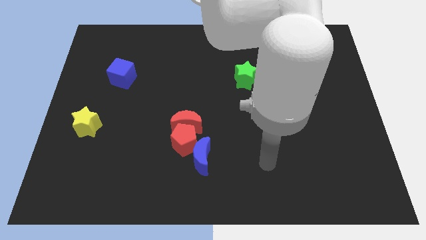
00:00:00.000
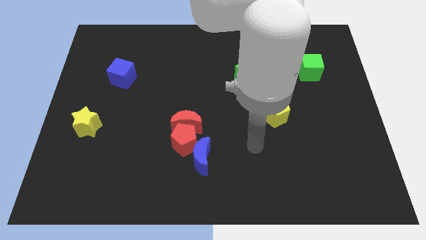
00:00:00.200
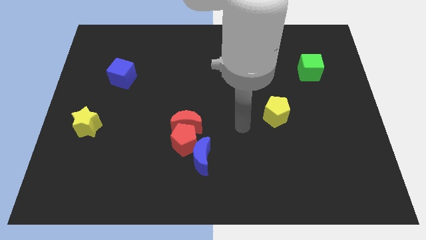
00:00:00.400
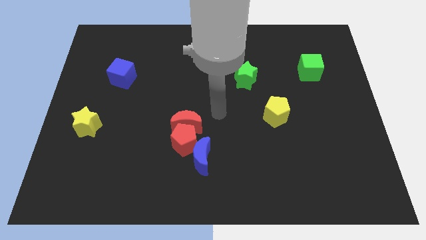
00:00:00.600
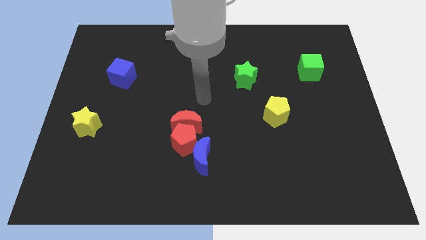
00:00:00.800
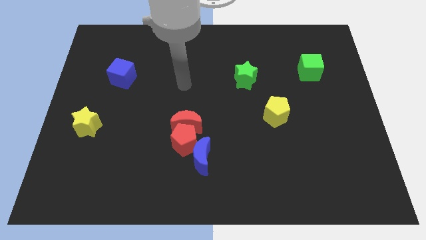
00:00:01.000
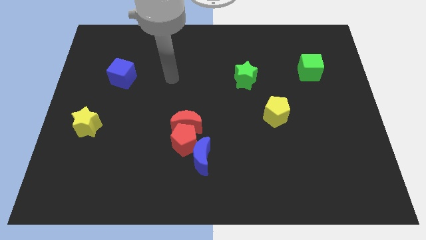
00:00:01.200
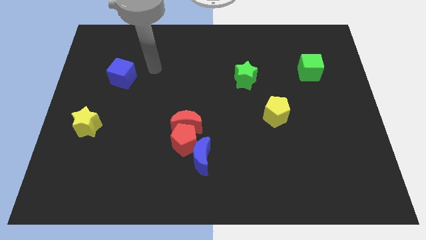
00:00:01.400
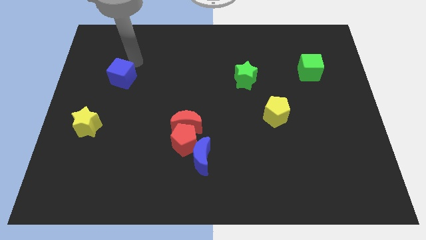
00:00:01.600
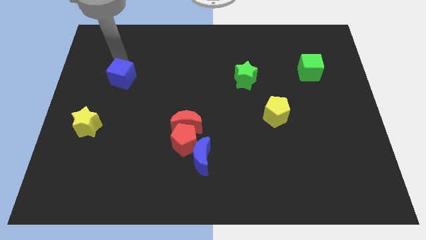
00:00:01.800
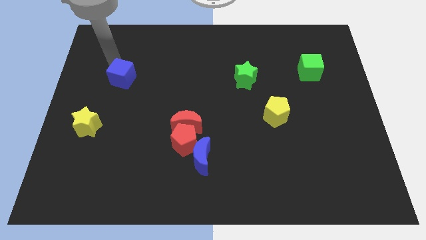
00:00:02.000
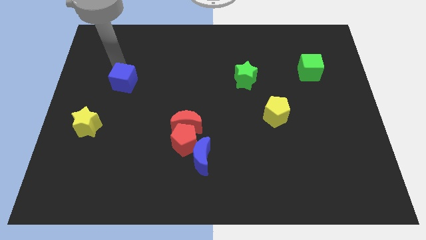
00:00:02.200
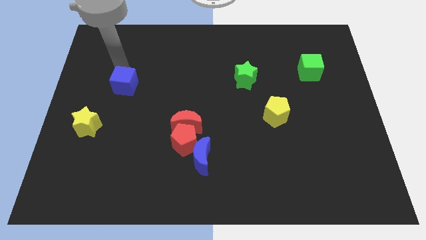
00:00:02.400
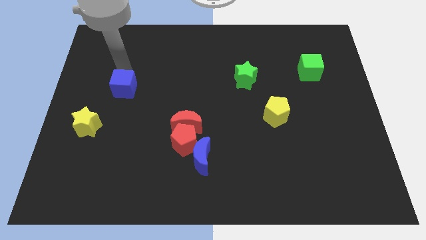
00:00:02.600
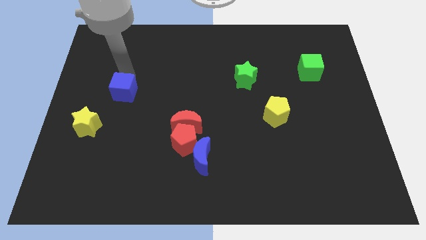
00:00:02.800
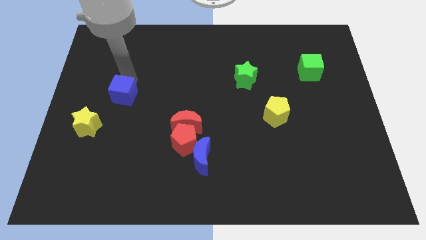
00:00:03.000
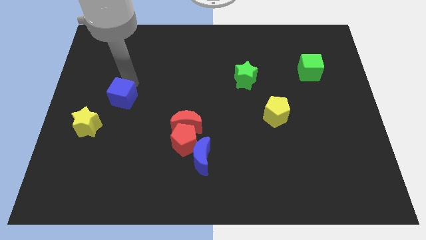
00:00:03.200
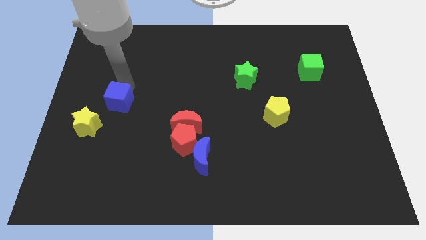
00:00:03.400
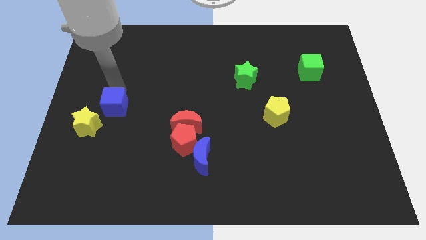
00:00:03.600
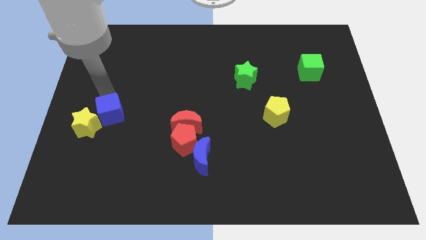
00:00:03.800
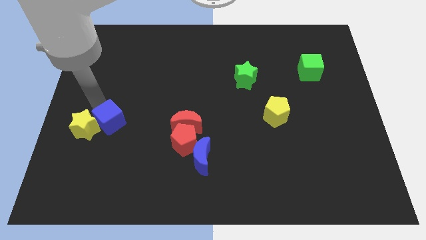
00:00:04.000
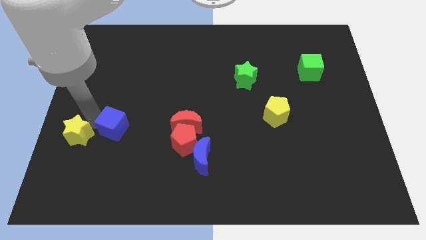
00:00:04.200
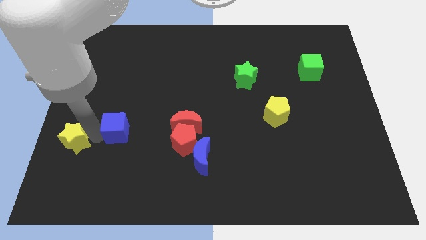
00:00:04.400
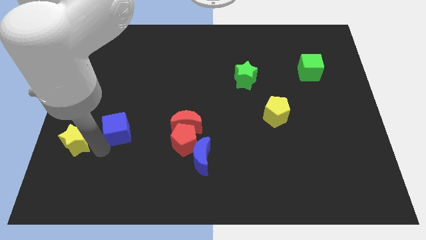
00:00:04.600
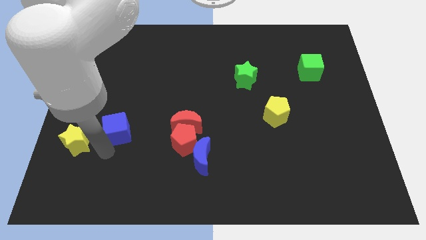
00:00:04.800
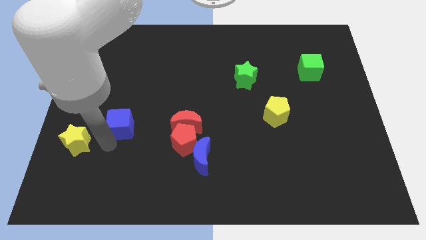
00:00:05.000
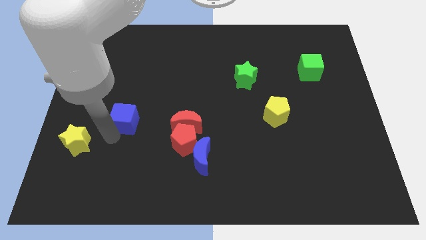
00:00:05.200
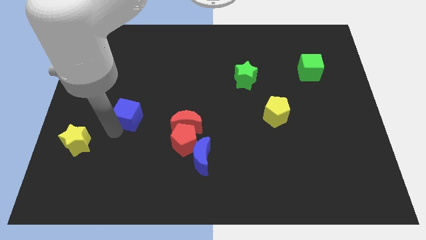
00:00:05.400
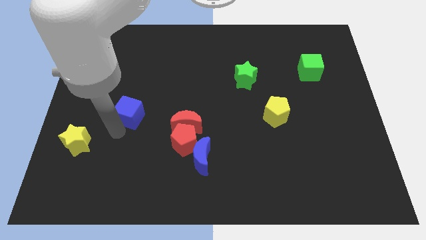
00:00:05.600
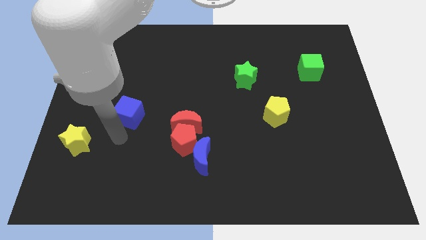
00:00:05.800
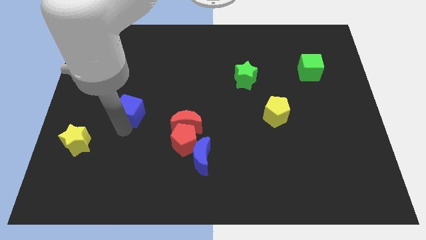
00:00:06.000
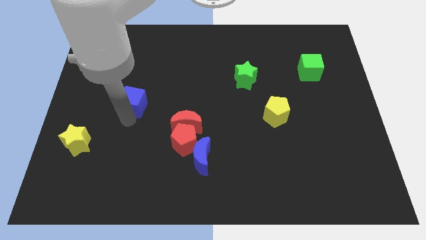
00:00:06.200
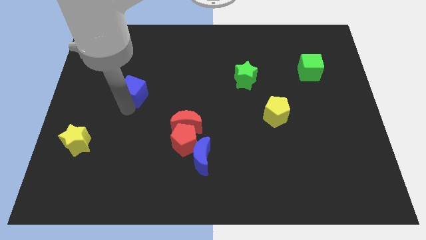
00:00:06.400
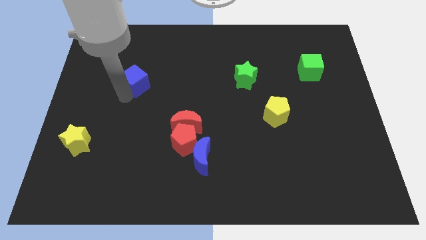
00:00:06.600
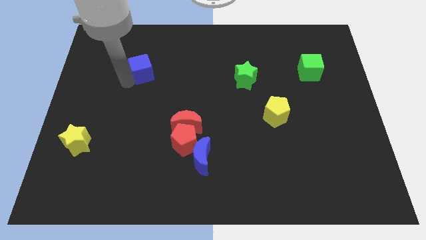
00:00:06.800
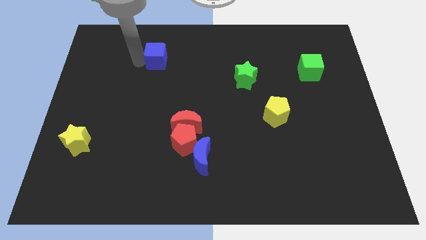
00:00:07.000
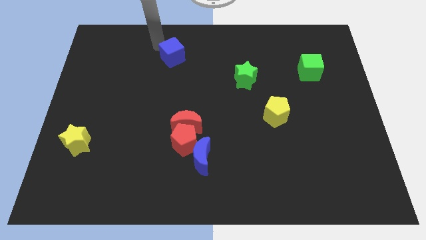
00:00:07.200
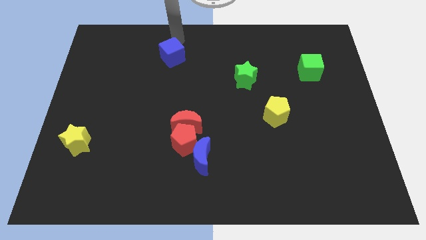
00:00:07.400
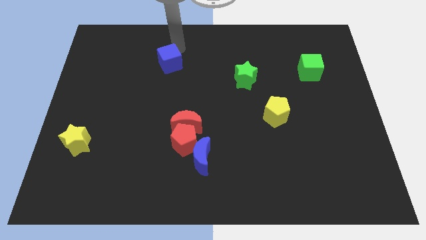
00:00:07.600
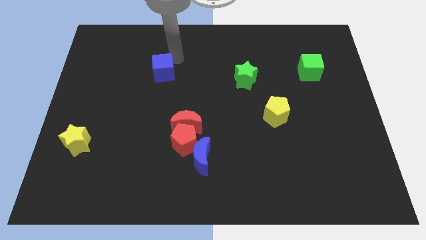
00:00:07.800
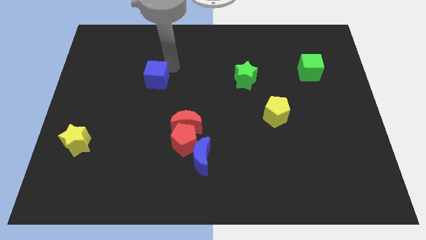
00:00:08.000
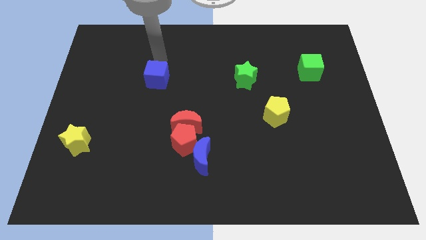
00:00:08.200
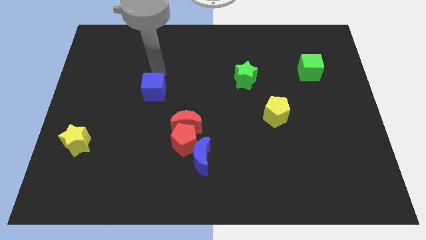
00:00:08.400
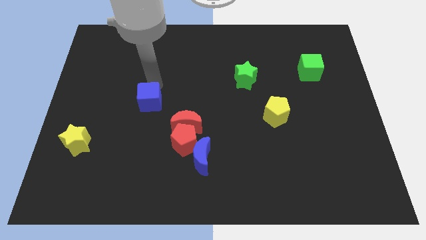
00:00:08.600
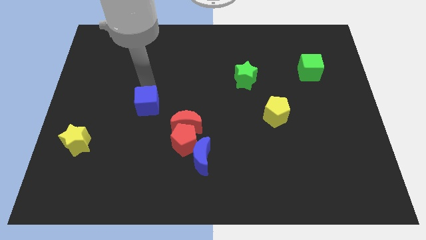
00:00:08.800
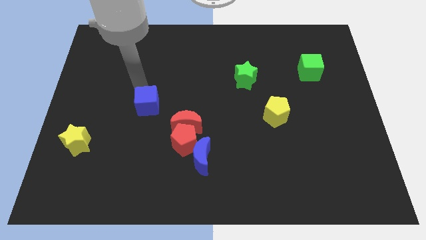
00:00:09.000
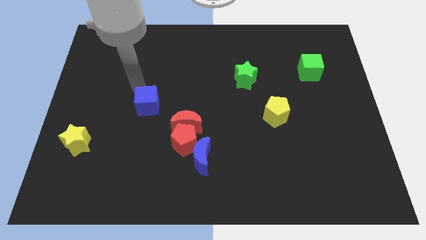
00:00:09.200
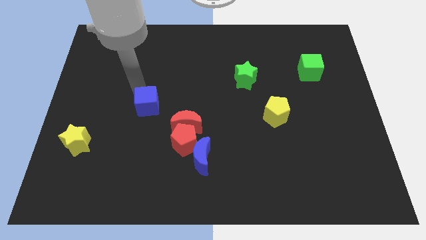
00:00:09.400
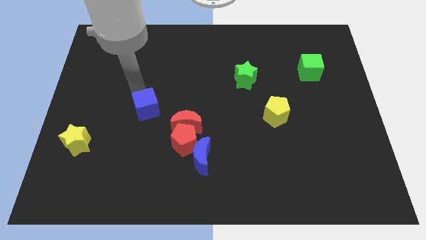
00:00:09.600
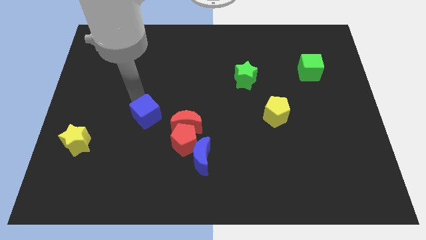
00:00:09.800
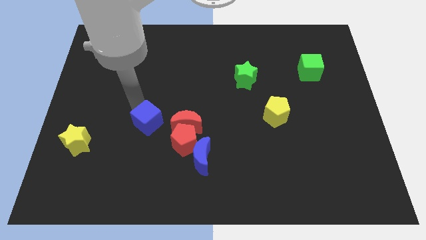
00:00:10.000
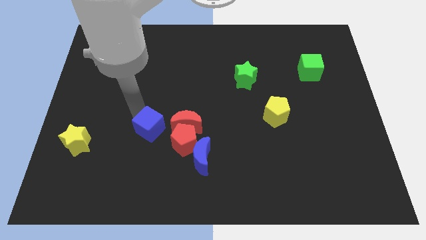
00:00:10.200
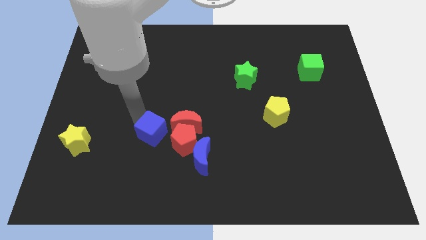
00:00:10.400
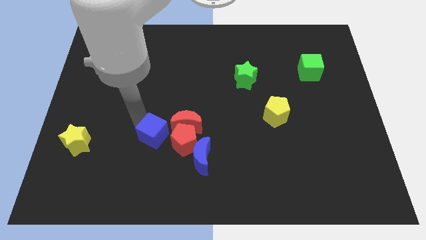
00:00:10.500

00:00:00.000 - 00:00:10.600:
push the blue cube to the top left of the blue moon

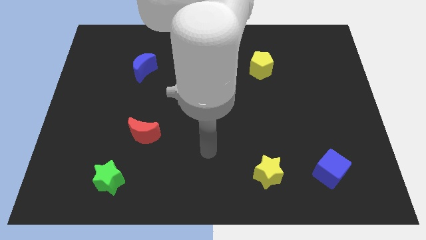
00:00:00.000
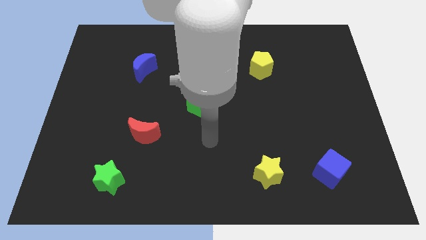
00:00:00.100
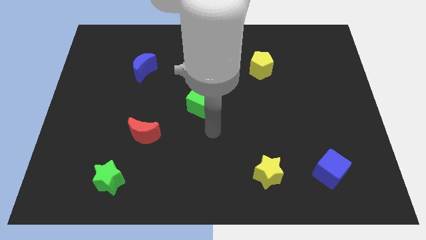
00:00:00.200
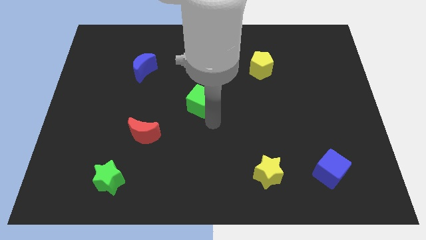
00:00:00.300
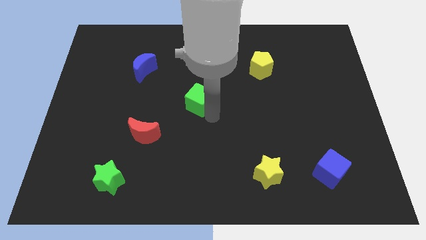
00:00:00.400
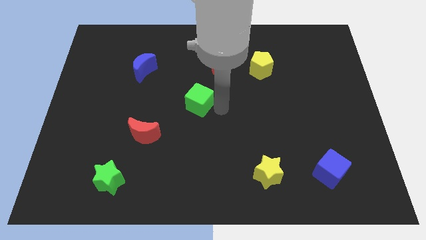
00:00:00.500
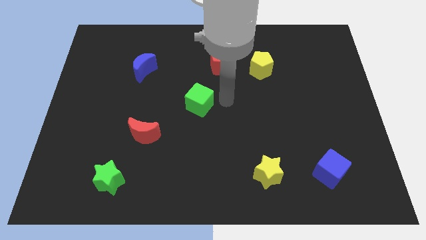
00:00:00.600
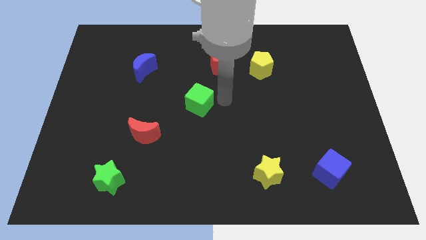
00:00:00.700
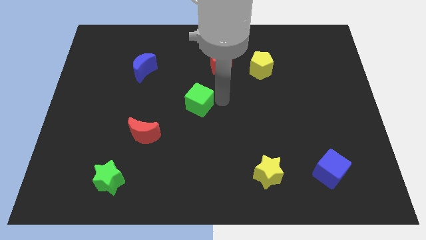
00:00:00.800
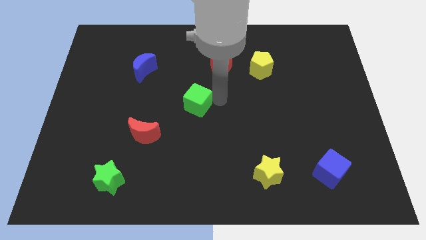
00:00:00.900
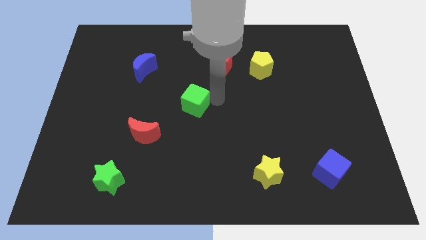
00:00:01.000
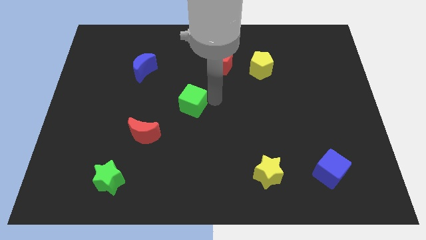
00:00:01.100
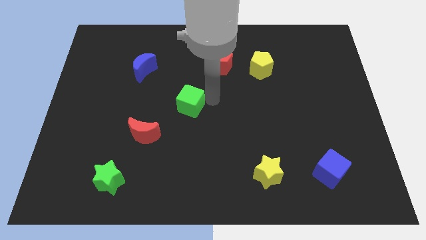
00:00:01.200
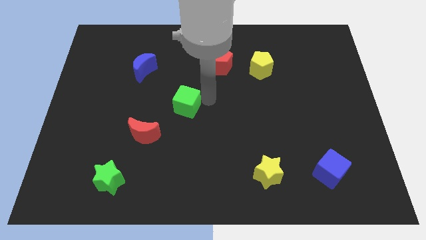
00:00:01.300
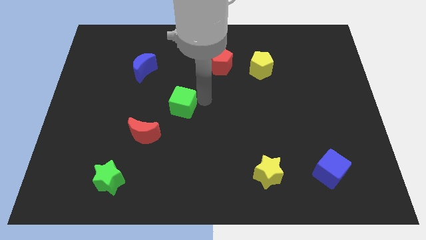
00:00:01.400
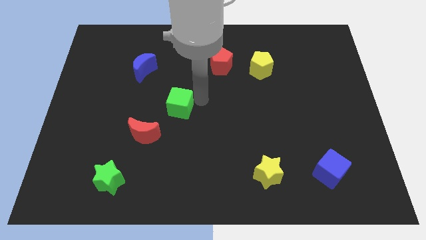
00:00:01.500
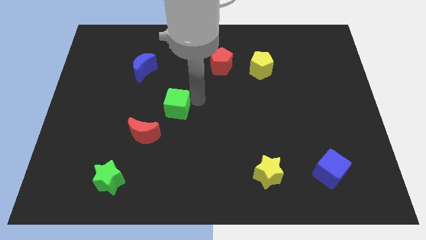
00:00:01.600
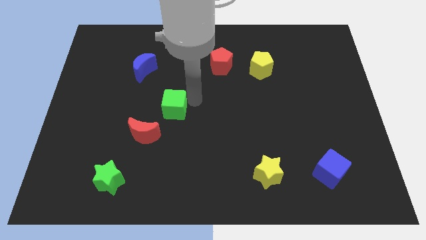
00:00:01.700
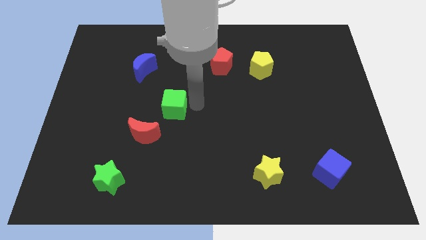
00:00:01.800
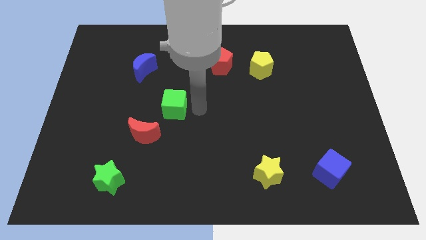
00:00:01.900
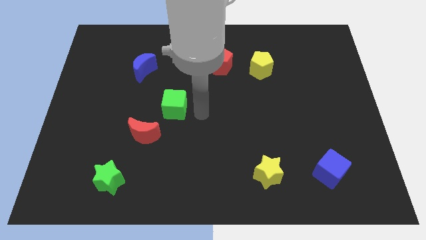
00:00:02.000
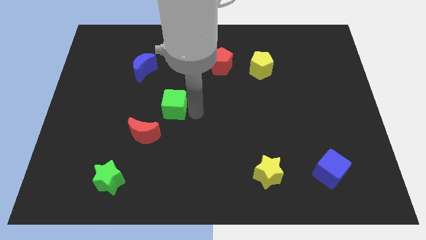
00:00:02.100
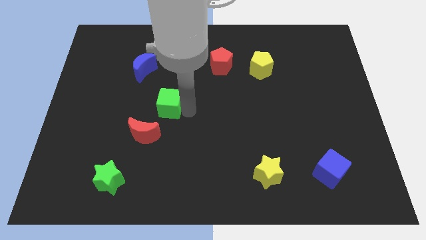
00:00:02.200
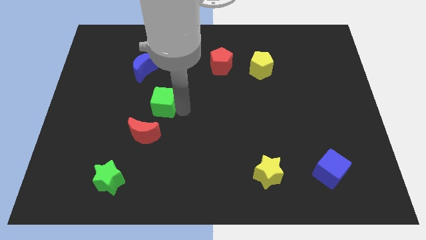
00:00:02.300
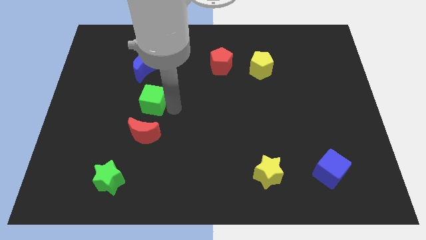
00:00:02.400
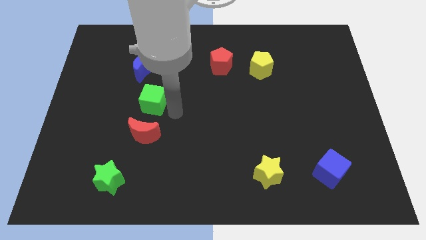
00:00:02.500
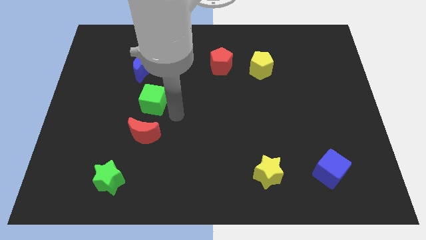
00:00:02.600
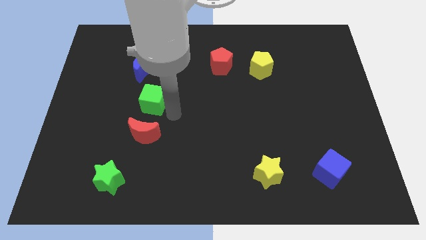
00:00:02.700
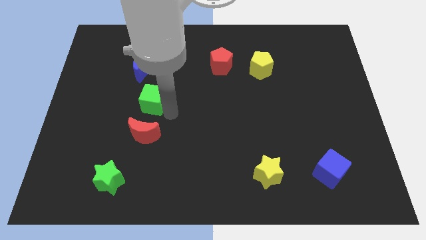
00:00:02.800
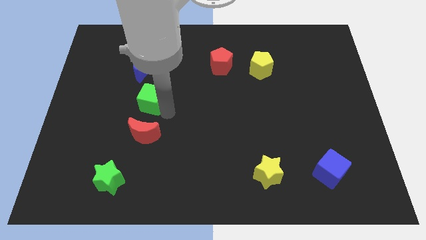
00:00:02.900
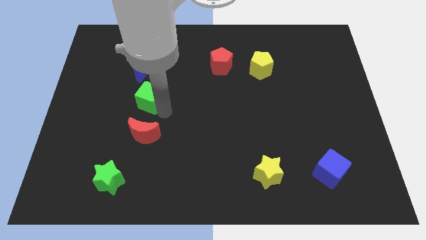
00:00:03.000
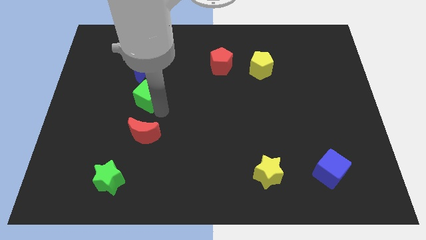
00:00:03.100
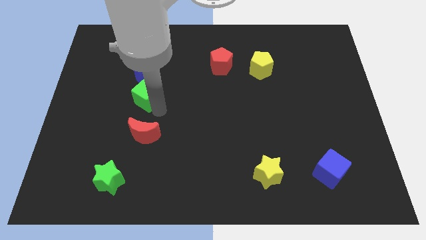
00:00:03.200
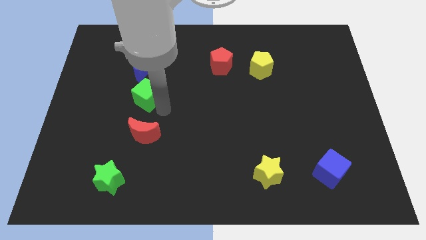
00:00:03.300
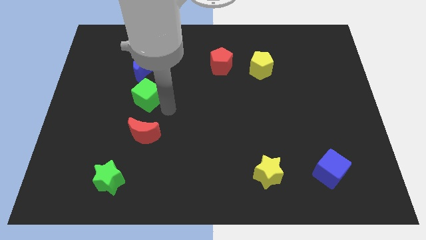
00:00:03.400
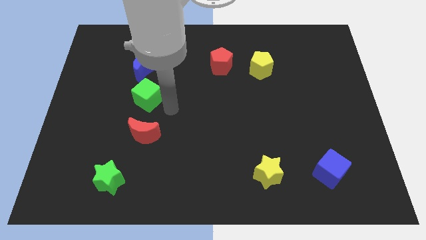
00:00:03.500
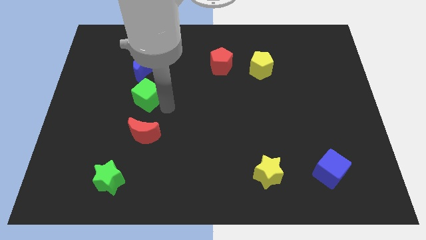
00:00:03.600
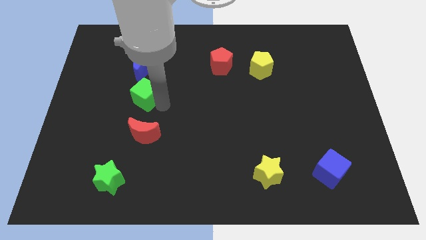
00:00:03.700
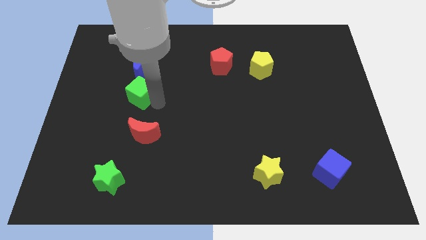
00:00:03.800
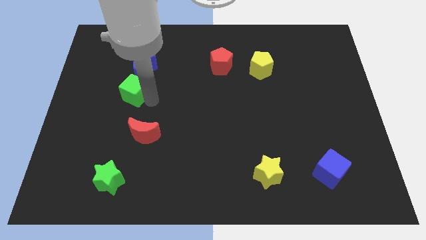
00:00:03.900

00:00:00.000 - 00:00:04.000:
slide the green cube diagonally down and to the left of the blue moon
